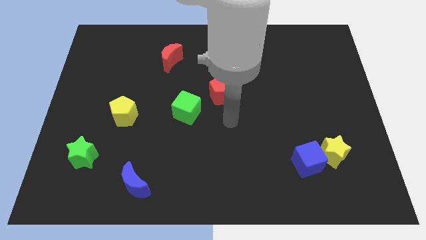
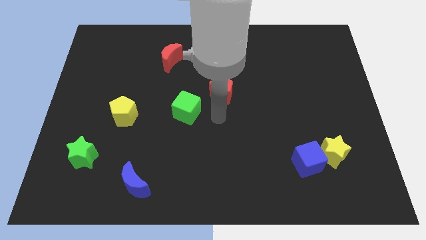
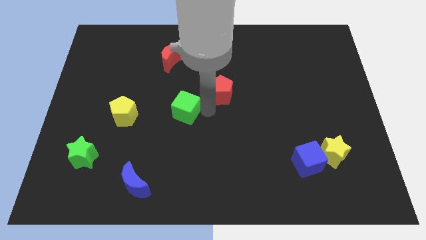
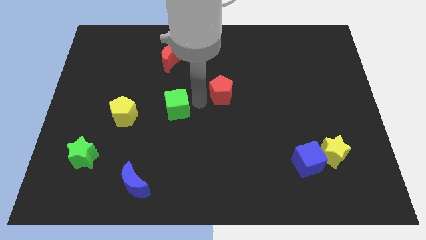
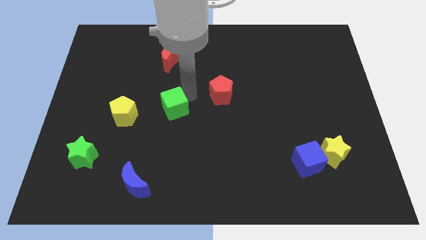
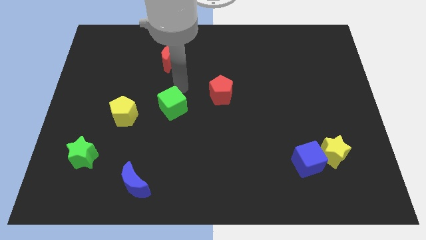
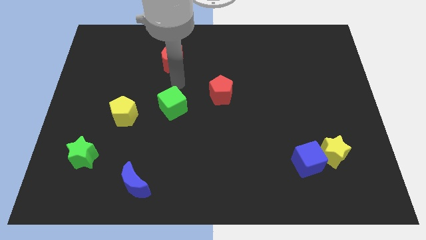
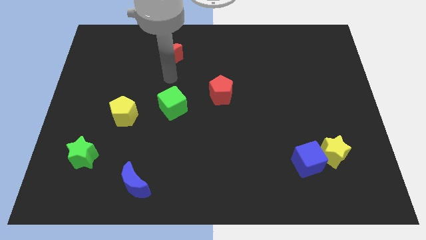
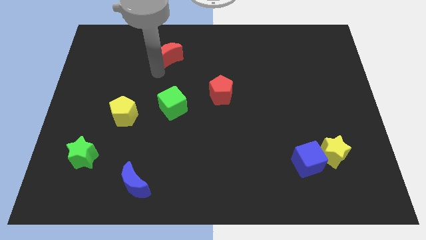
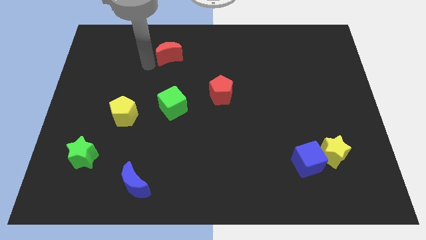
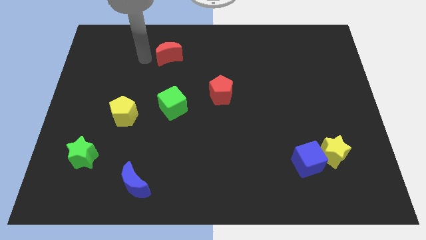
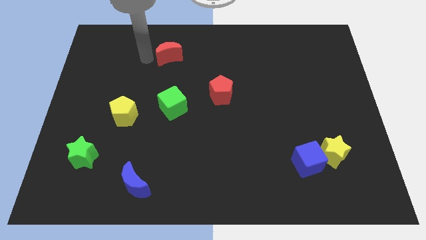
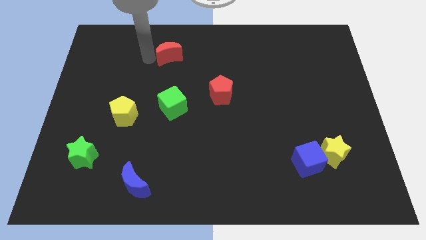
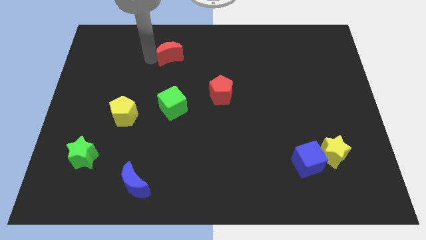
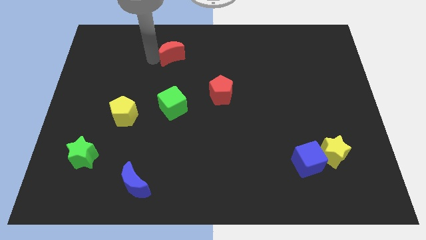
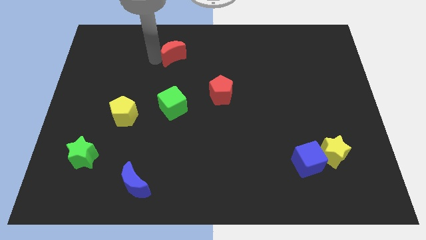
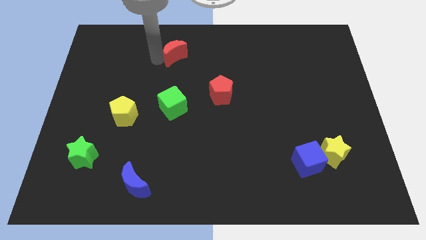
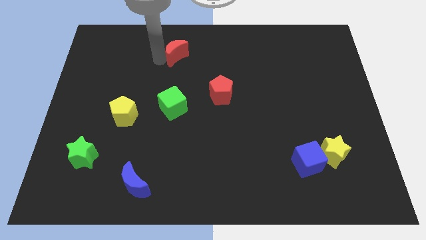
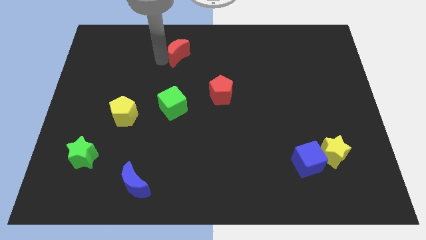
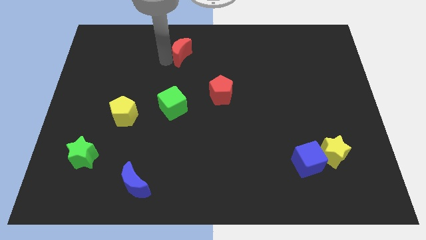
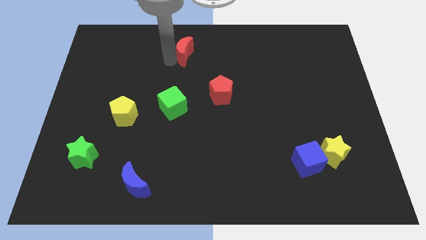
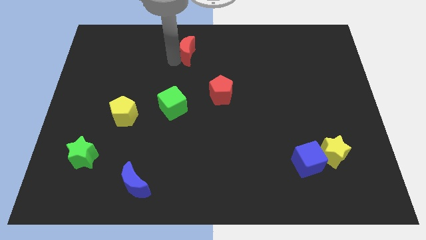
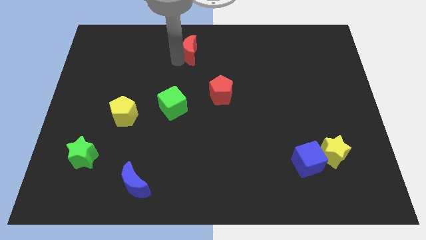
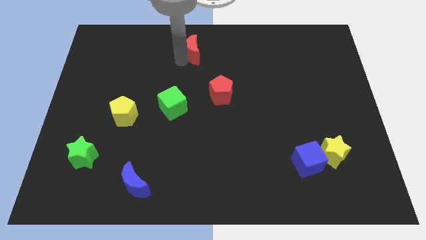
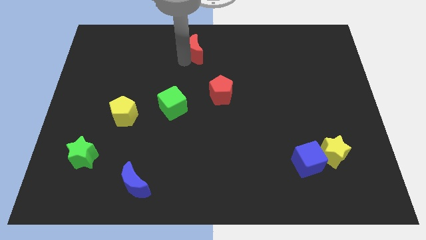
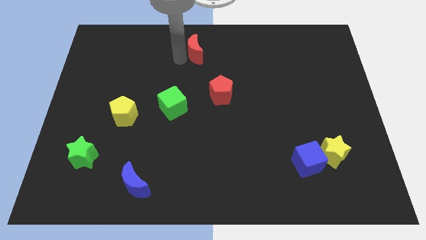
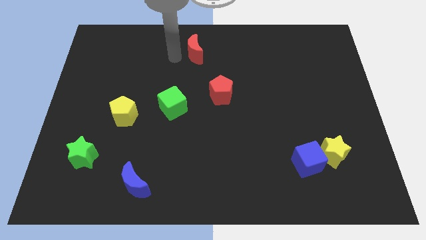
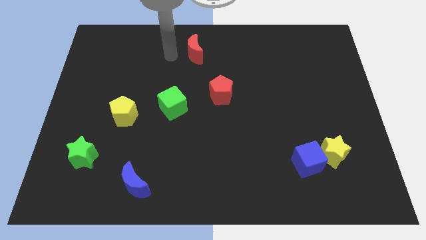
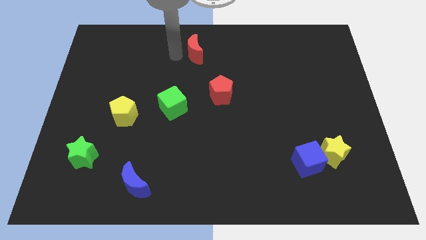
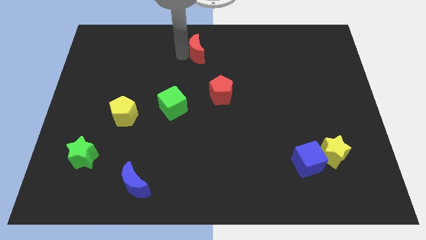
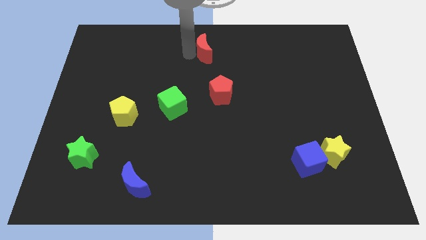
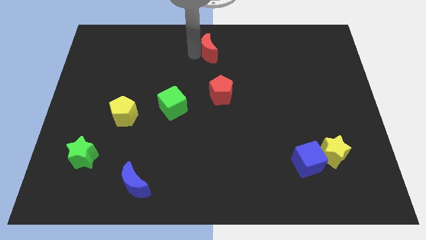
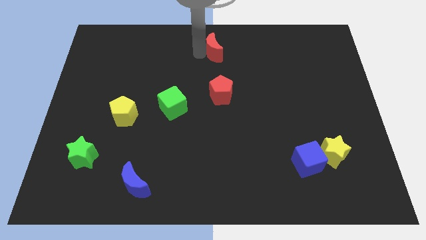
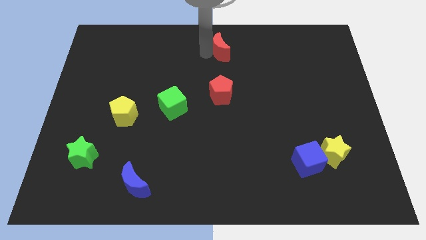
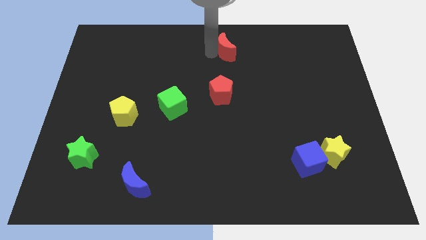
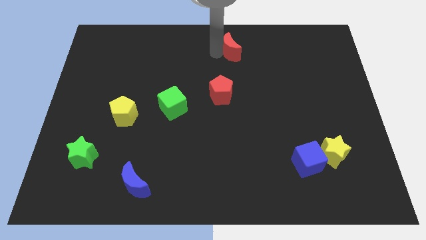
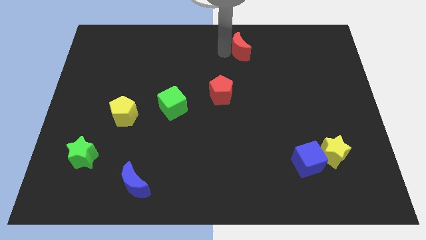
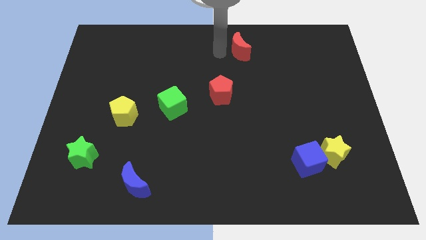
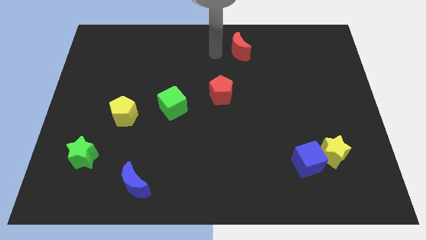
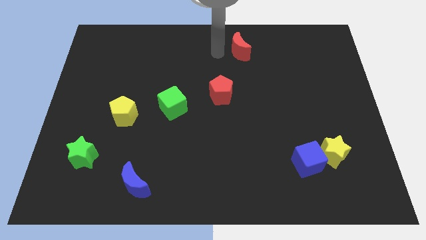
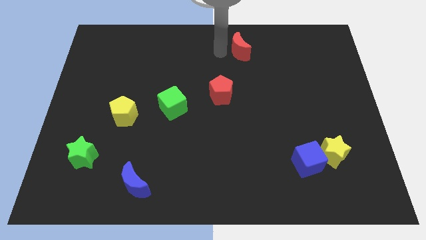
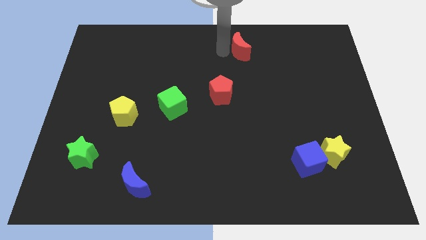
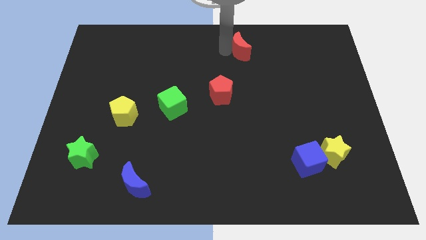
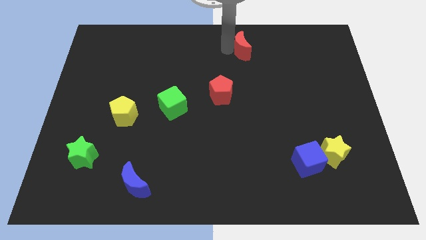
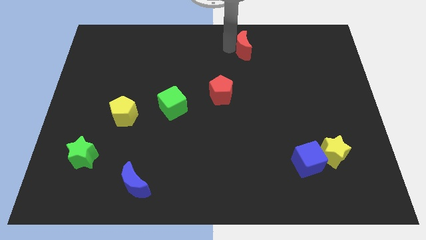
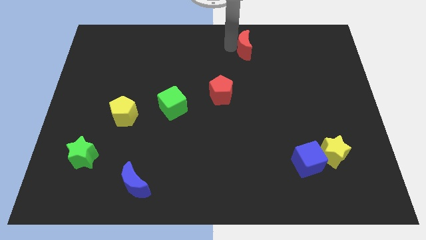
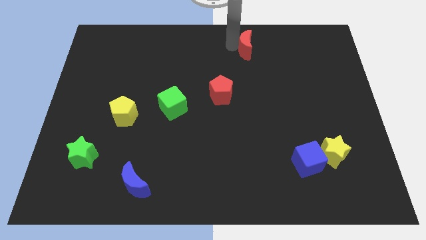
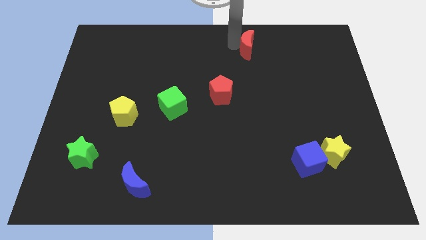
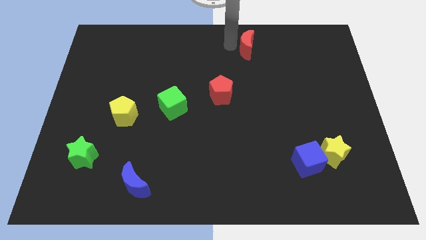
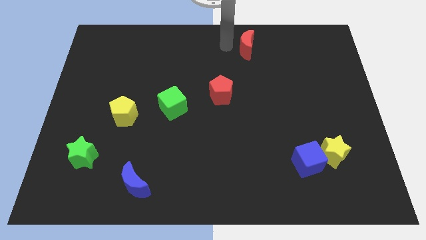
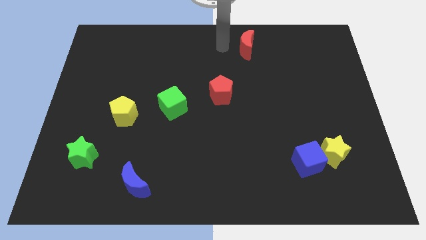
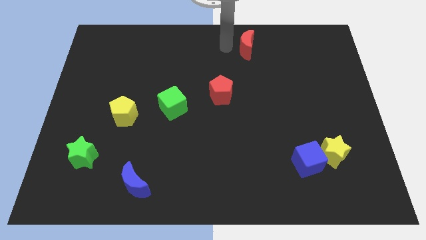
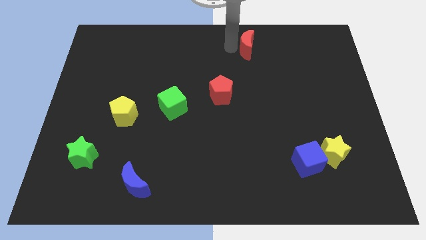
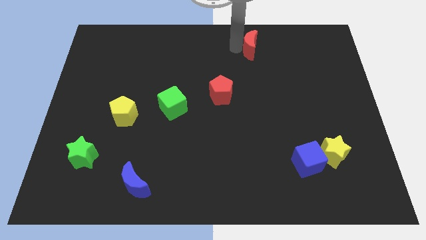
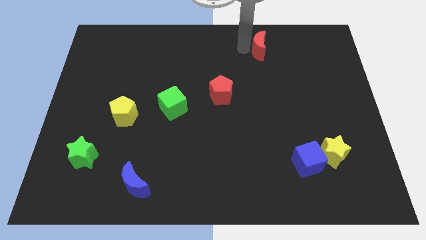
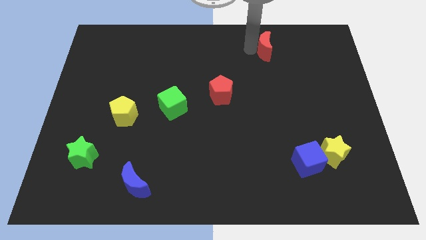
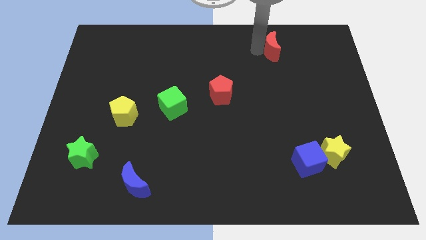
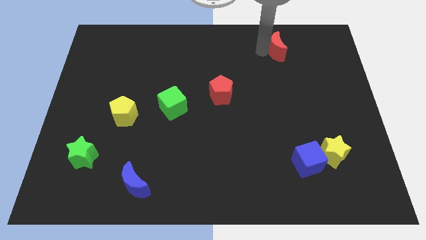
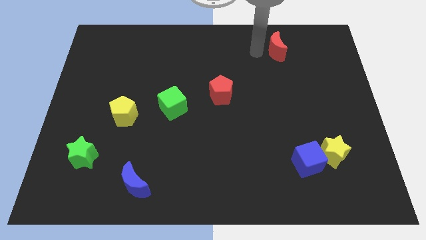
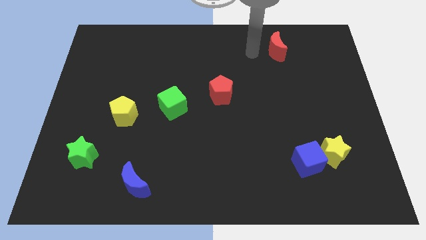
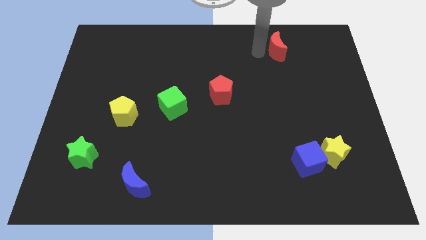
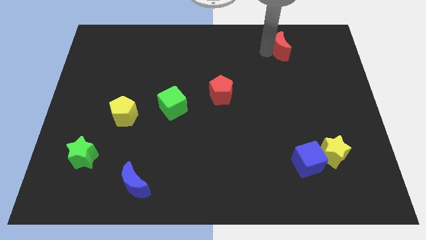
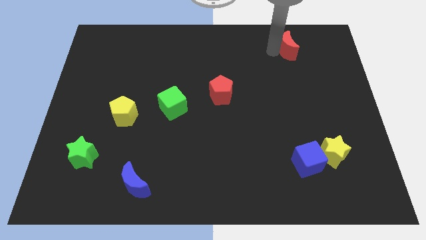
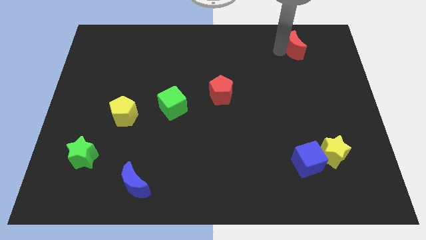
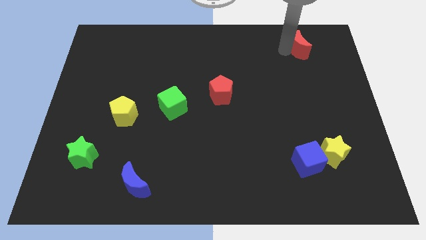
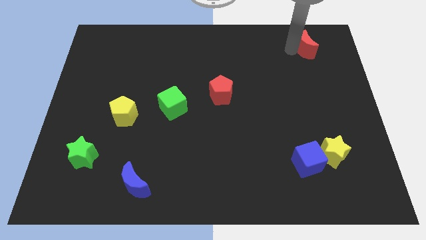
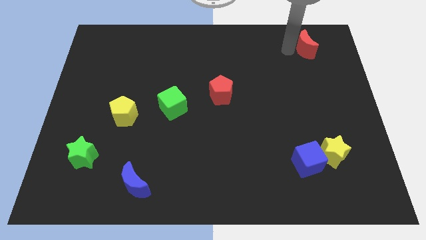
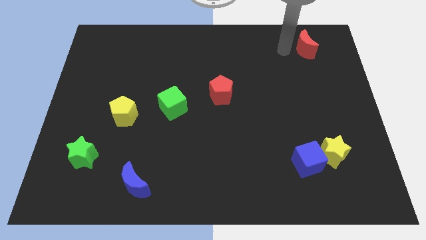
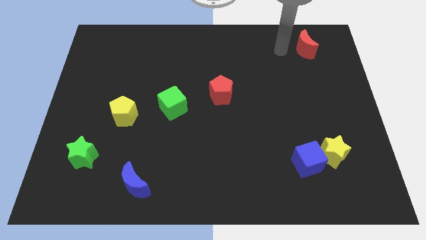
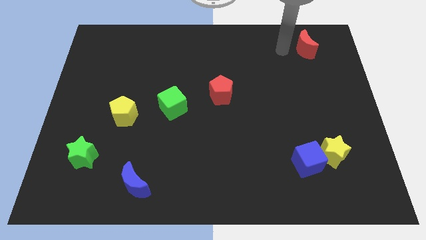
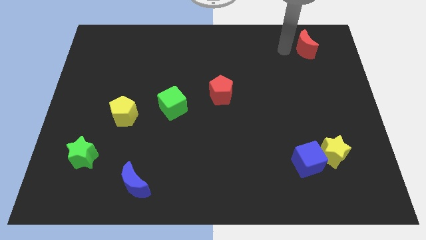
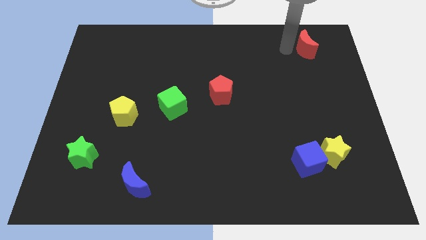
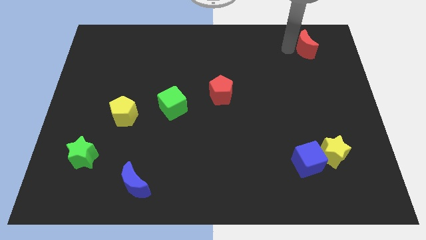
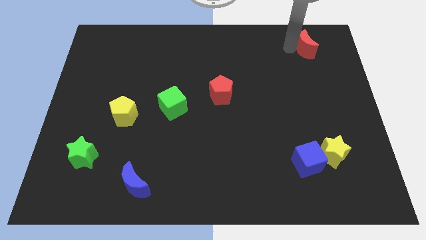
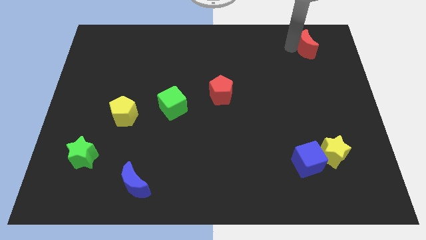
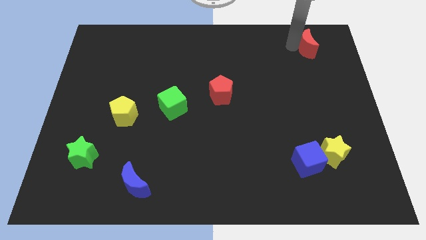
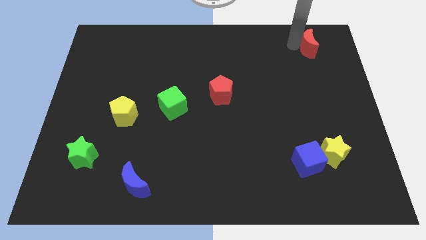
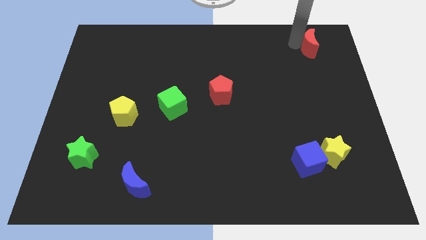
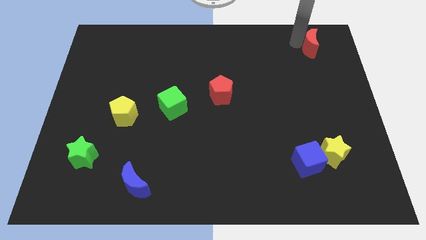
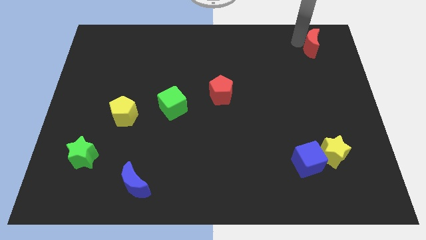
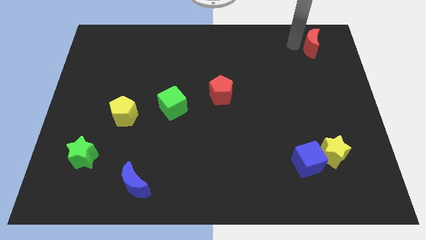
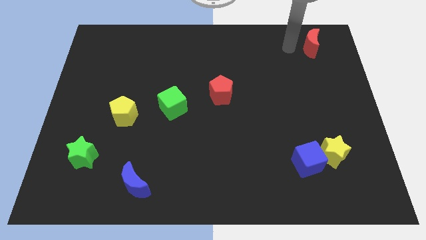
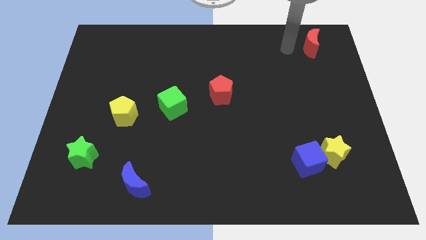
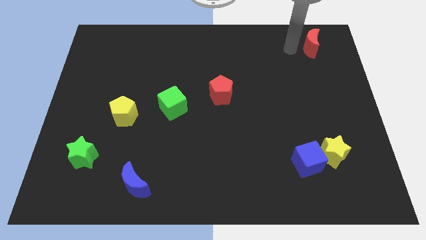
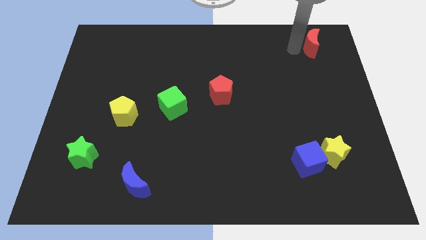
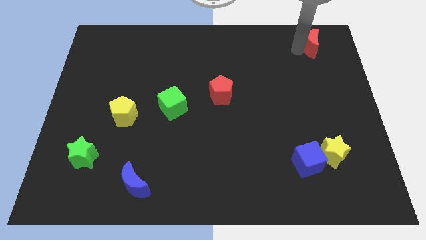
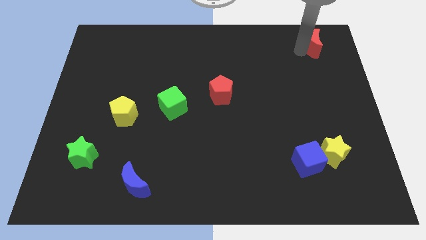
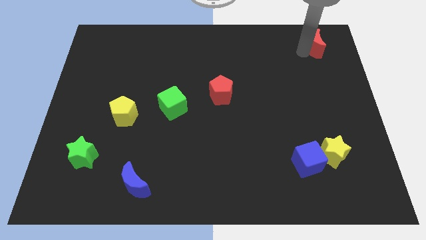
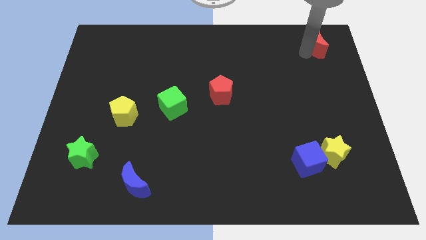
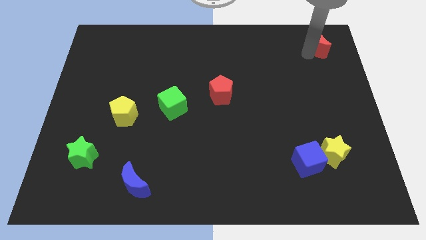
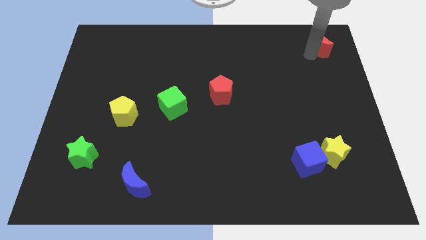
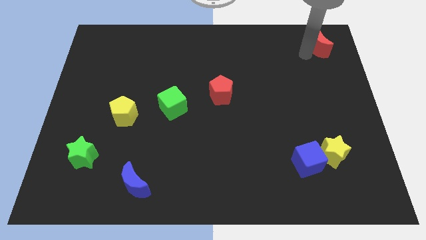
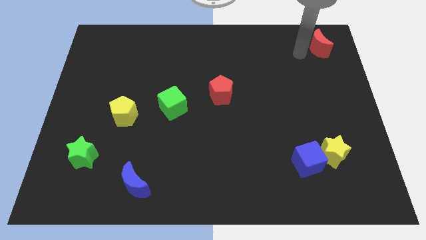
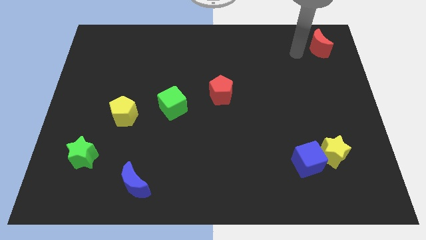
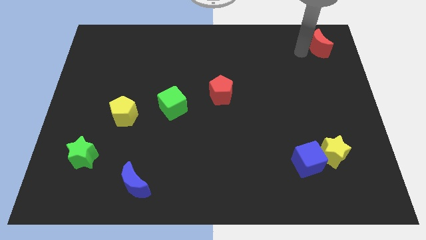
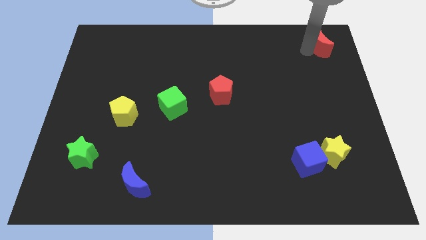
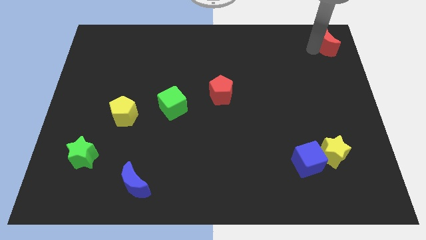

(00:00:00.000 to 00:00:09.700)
move the red moon to the upper right corner
